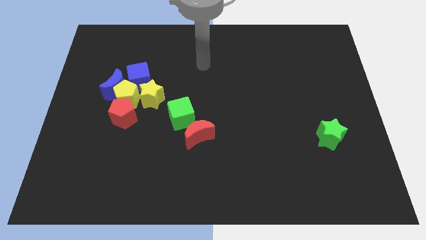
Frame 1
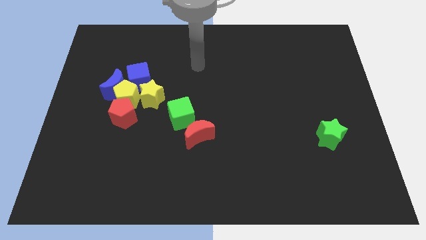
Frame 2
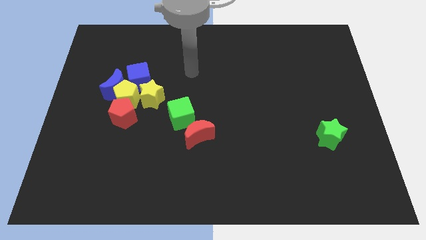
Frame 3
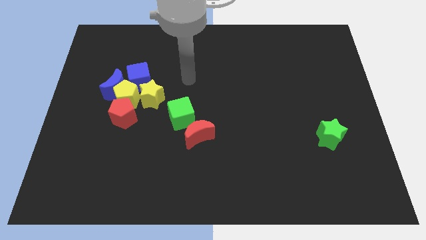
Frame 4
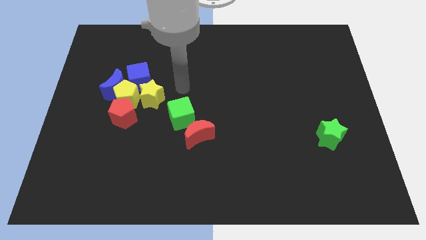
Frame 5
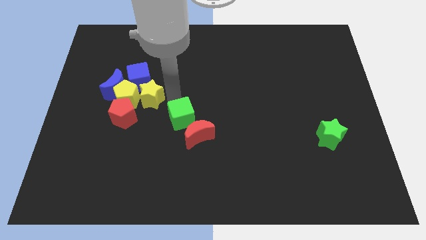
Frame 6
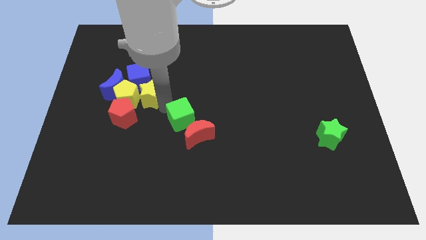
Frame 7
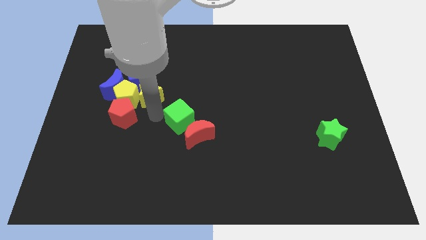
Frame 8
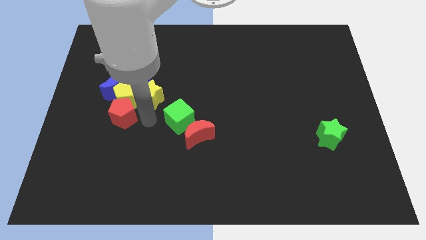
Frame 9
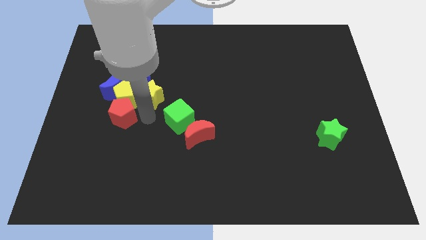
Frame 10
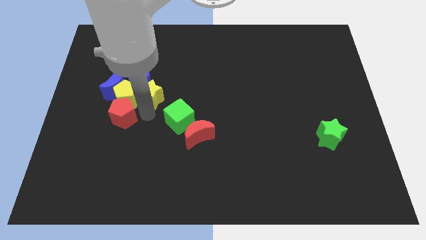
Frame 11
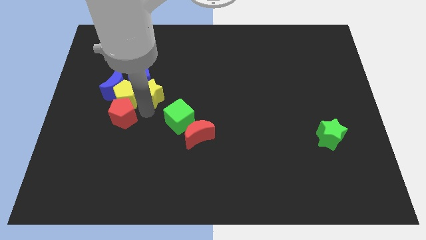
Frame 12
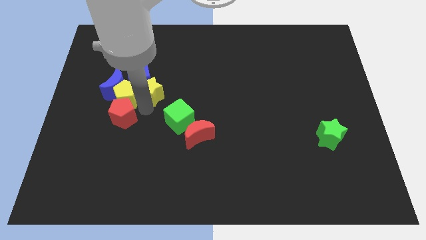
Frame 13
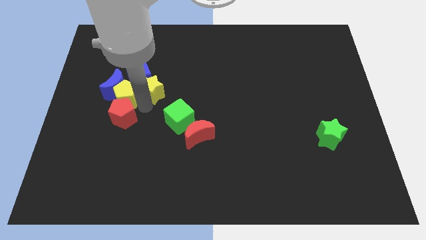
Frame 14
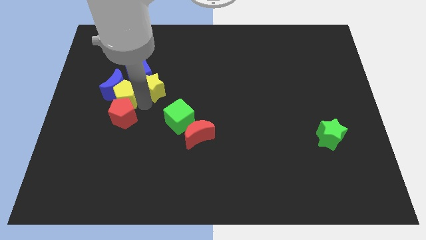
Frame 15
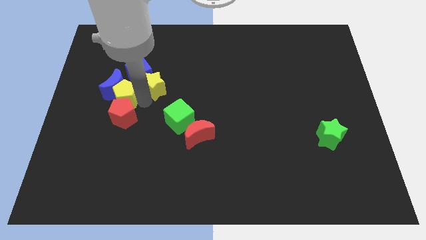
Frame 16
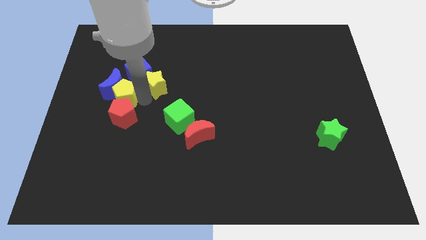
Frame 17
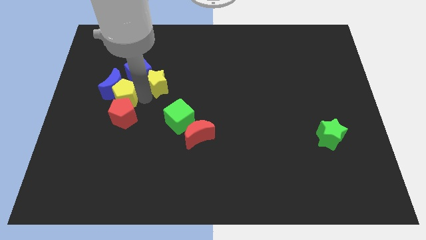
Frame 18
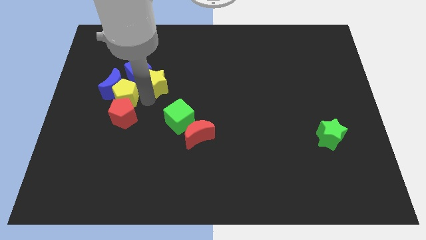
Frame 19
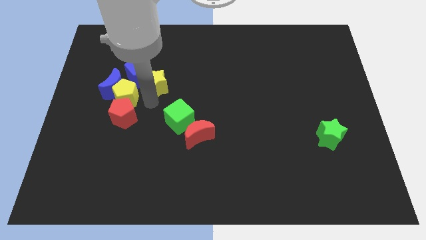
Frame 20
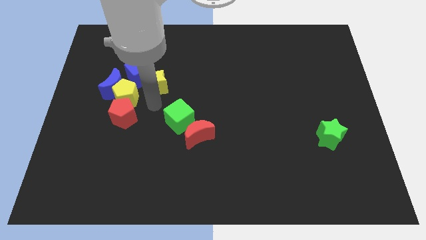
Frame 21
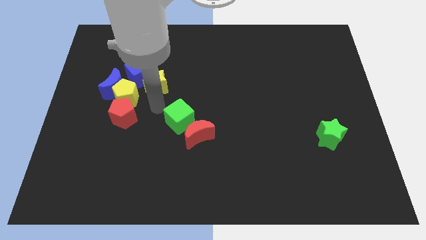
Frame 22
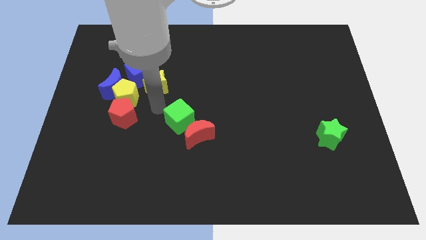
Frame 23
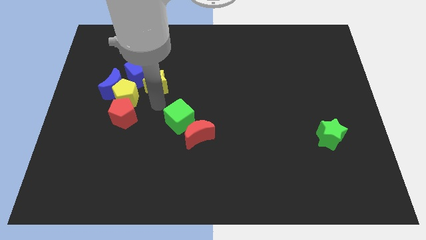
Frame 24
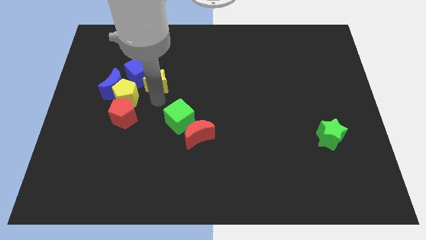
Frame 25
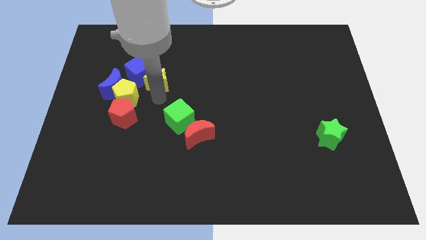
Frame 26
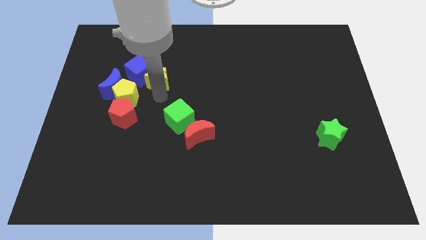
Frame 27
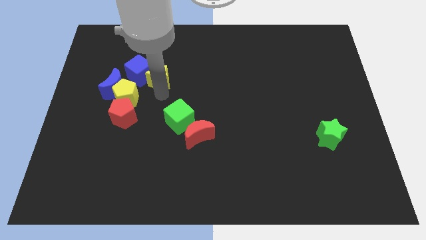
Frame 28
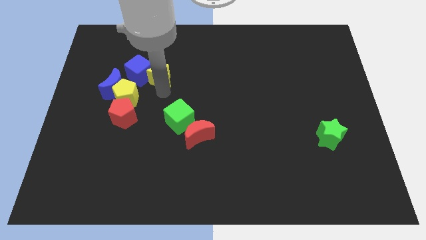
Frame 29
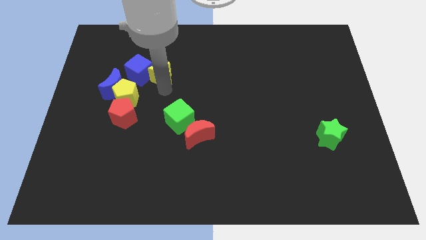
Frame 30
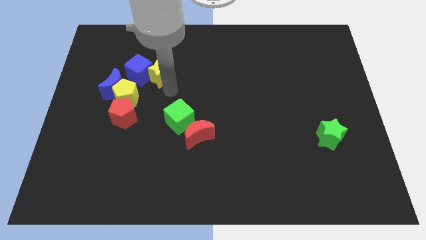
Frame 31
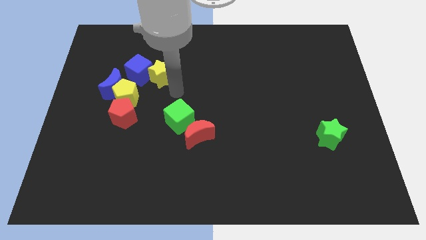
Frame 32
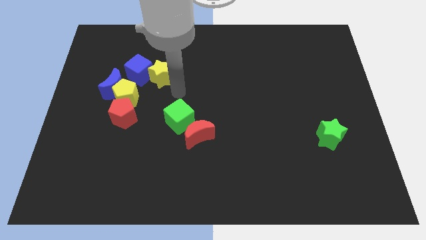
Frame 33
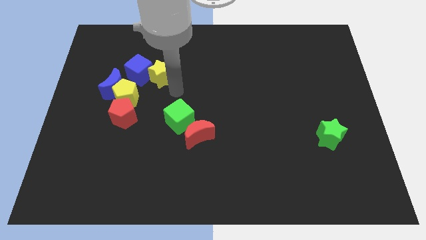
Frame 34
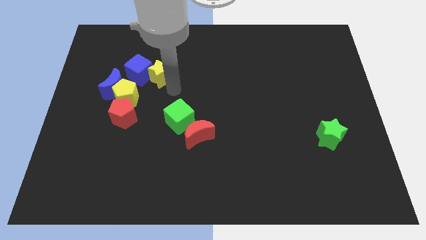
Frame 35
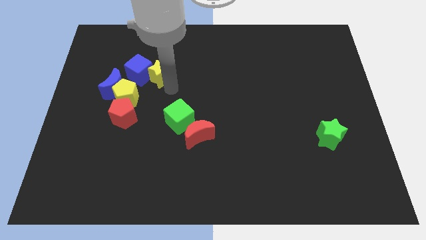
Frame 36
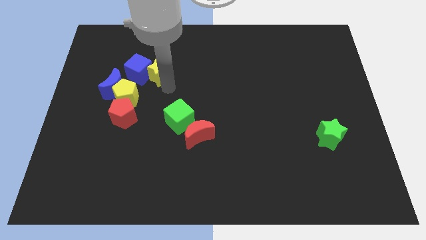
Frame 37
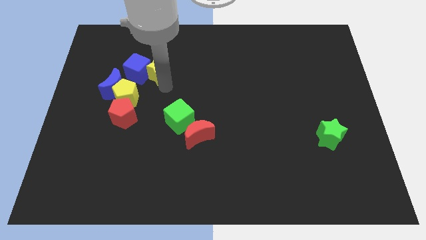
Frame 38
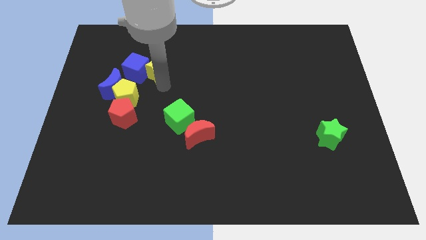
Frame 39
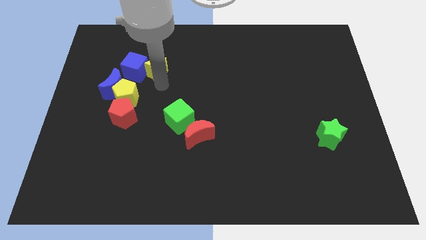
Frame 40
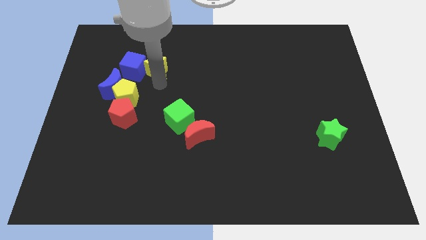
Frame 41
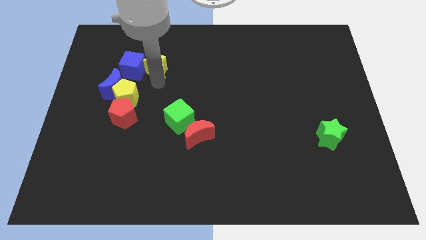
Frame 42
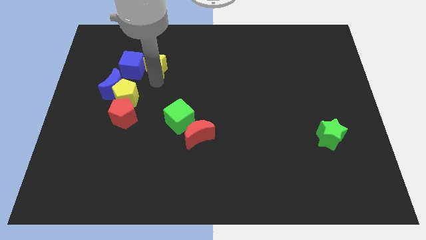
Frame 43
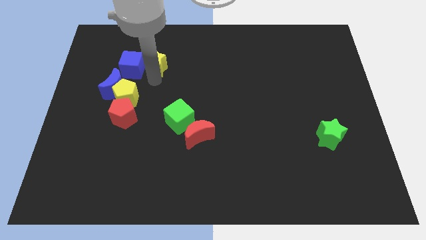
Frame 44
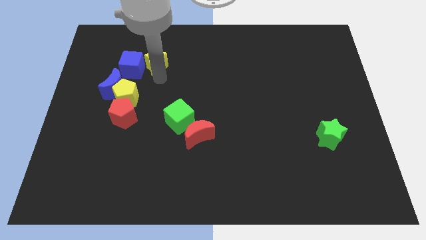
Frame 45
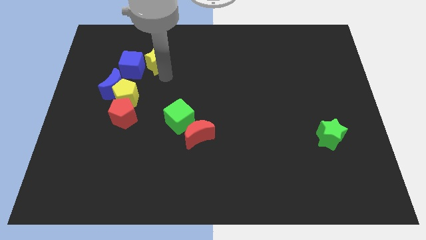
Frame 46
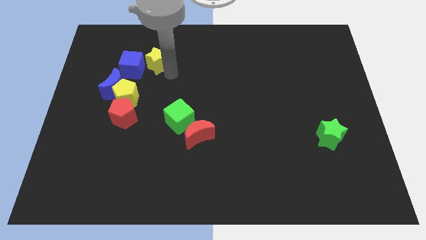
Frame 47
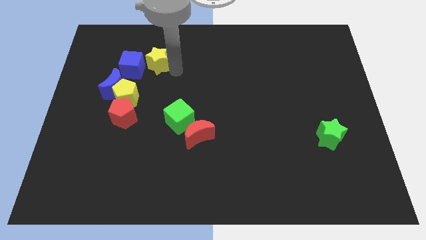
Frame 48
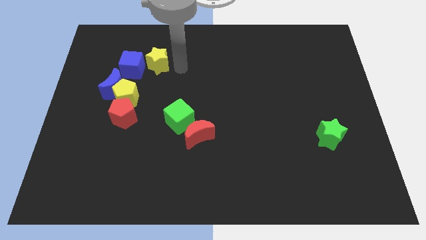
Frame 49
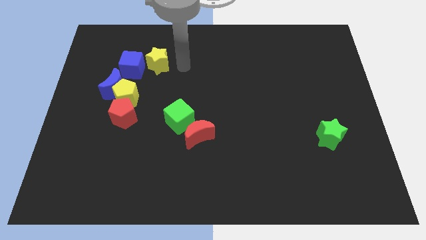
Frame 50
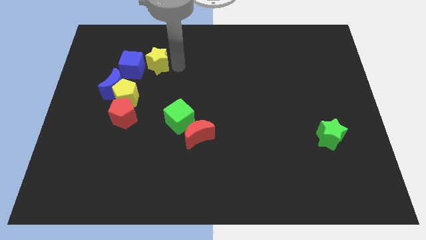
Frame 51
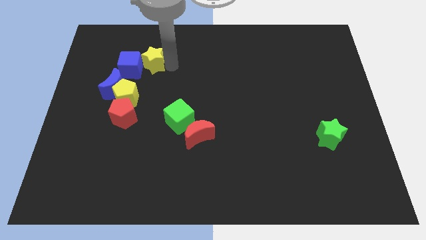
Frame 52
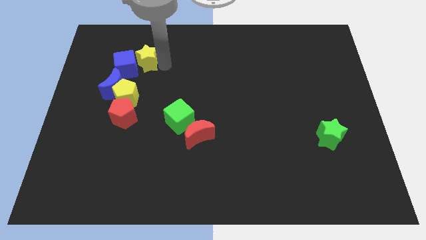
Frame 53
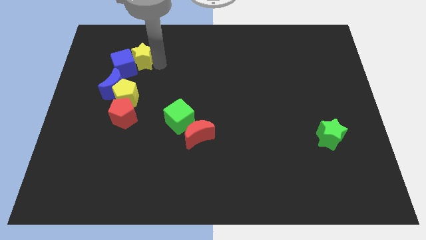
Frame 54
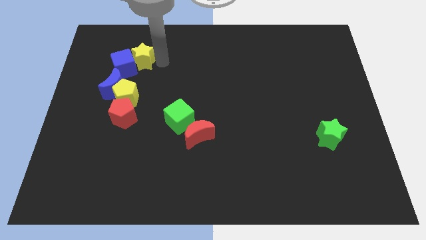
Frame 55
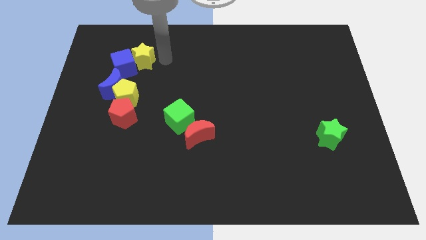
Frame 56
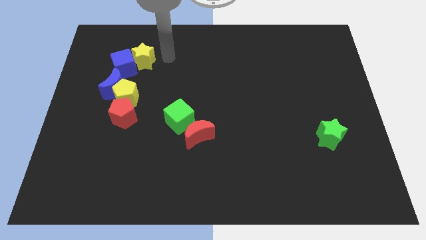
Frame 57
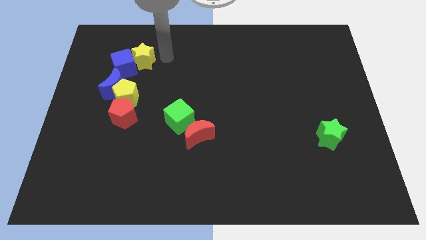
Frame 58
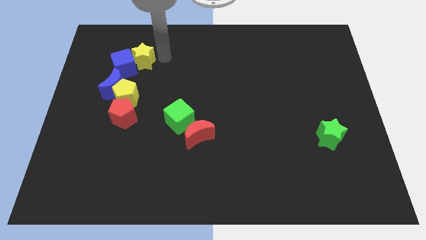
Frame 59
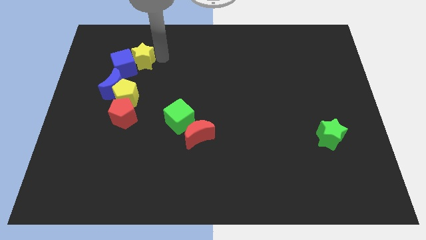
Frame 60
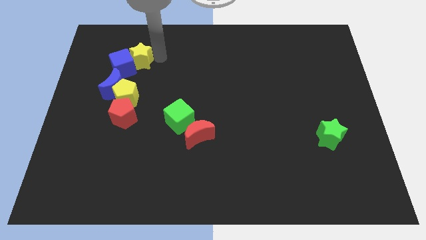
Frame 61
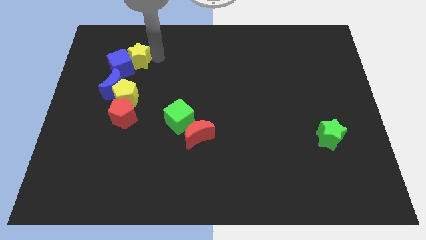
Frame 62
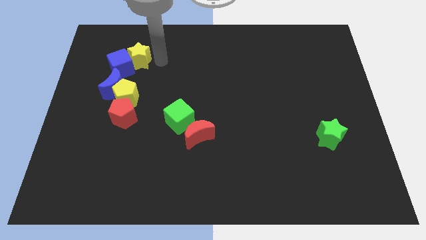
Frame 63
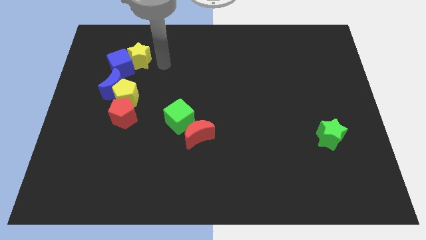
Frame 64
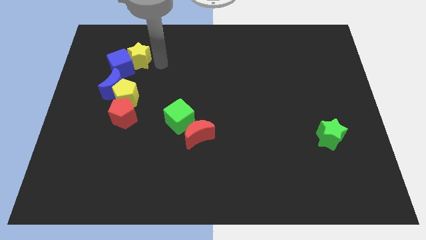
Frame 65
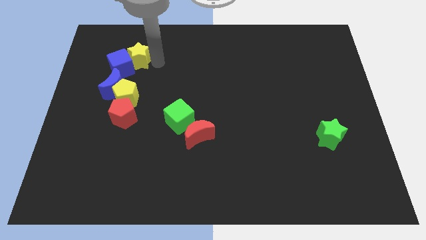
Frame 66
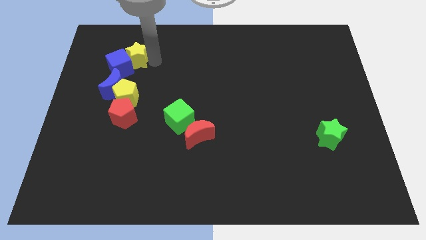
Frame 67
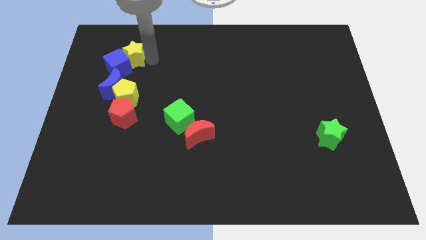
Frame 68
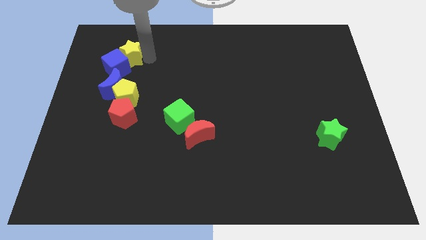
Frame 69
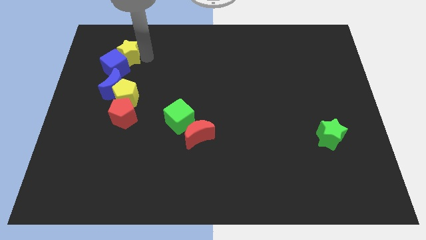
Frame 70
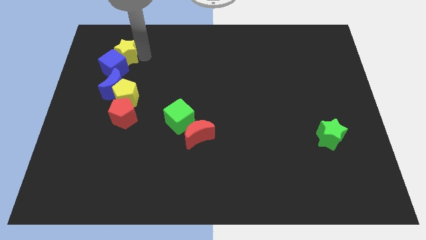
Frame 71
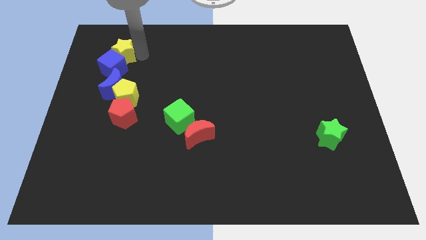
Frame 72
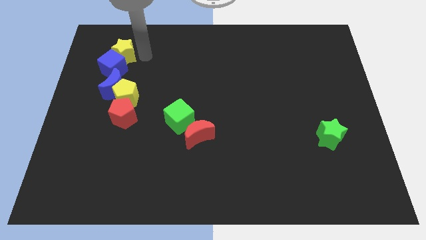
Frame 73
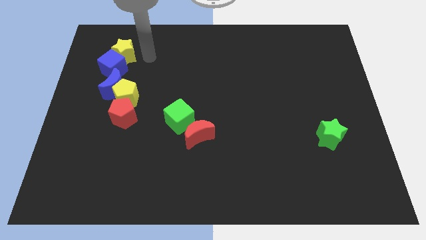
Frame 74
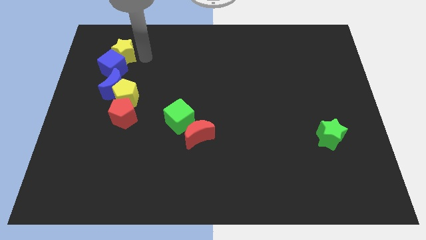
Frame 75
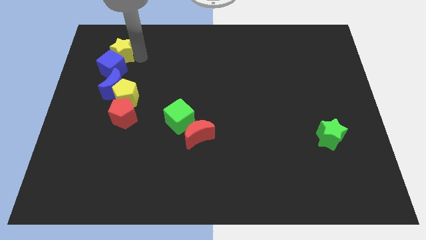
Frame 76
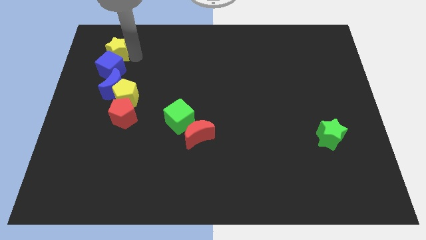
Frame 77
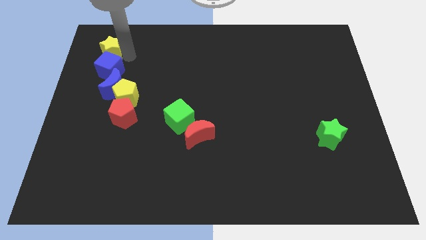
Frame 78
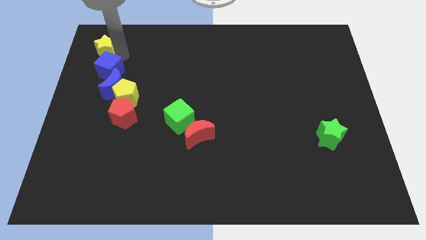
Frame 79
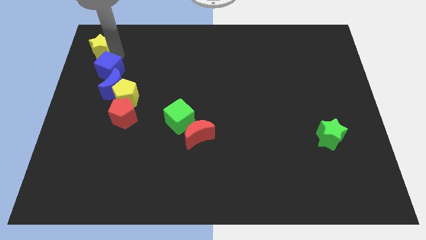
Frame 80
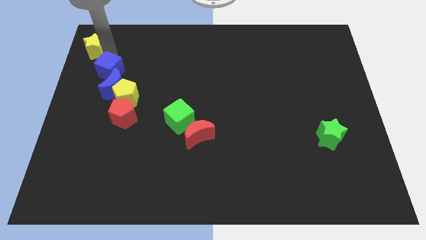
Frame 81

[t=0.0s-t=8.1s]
move the yellow star to the top left corner
